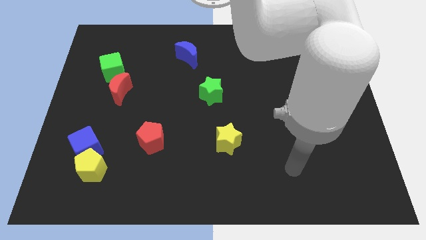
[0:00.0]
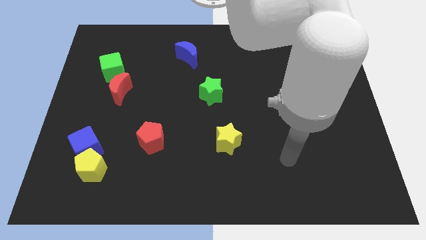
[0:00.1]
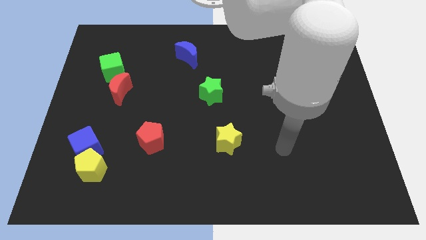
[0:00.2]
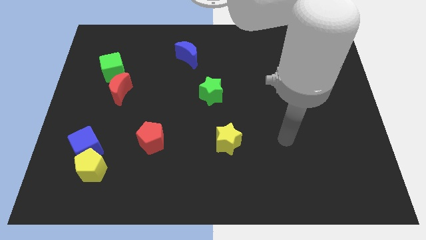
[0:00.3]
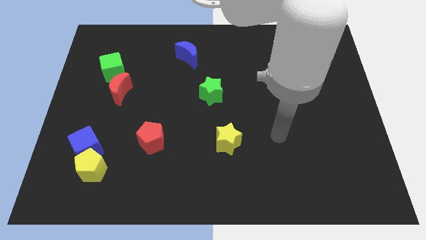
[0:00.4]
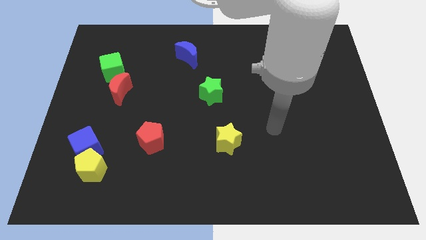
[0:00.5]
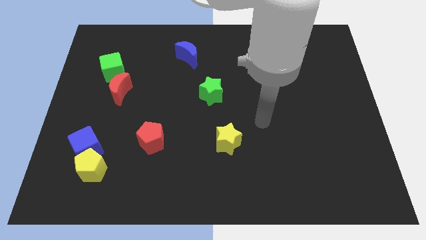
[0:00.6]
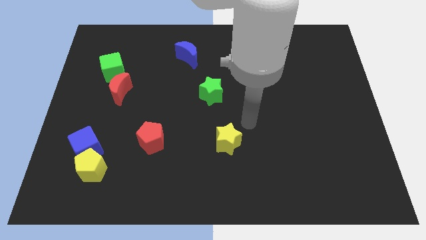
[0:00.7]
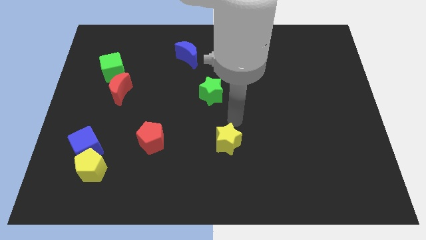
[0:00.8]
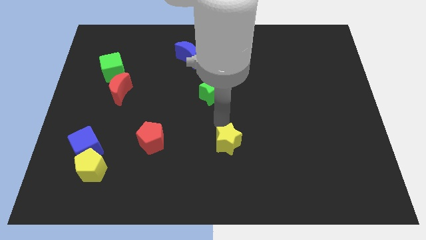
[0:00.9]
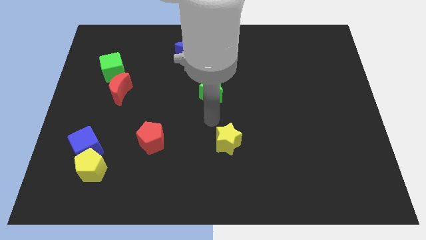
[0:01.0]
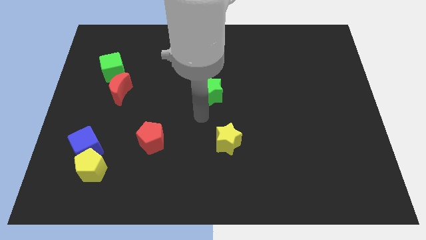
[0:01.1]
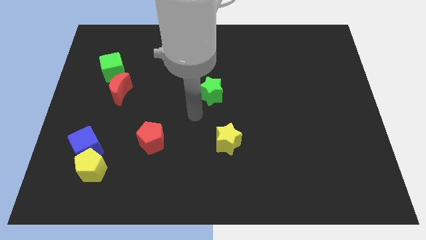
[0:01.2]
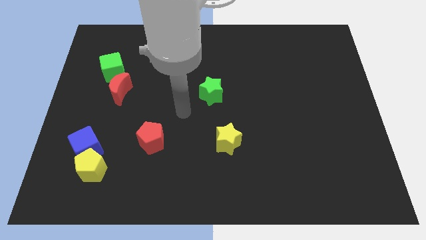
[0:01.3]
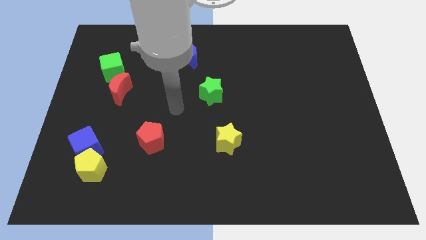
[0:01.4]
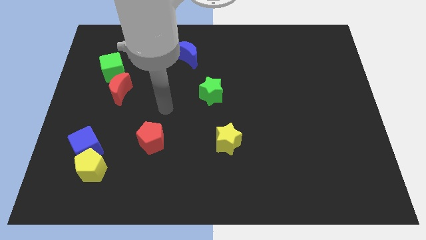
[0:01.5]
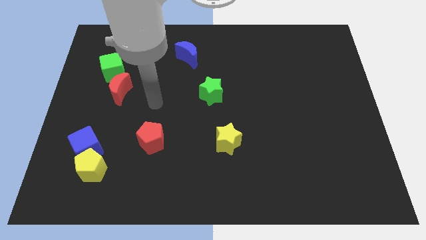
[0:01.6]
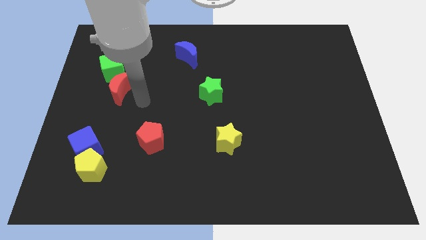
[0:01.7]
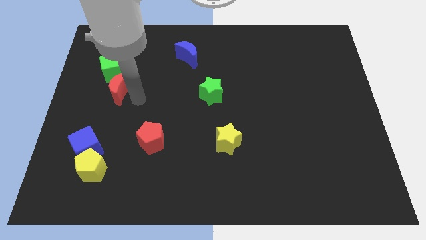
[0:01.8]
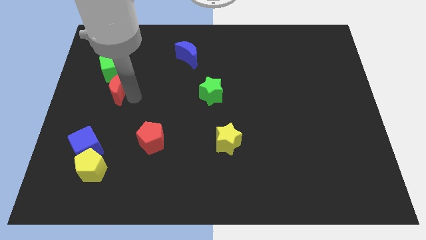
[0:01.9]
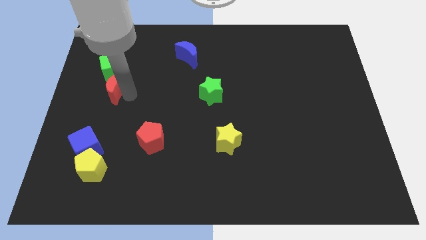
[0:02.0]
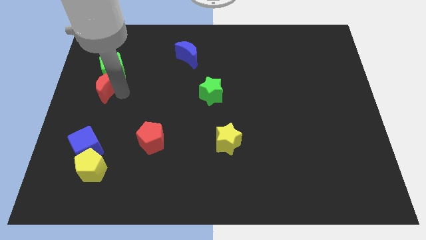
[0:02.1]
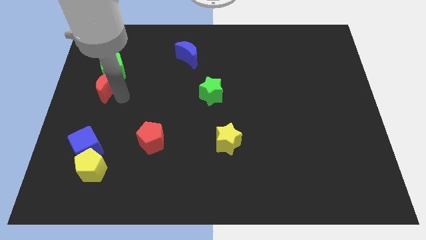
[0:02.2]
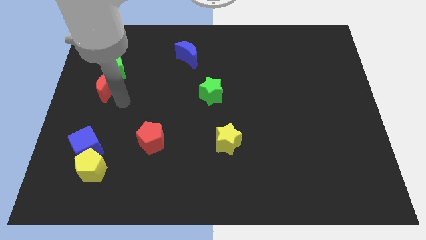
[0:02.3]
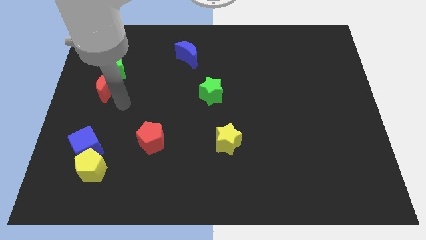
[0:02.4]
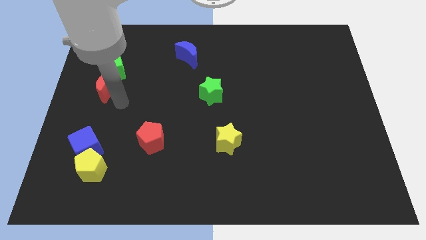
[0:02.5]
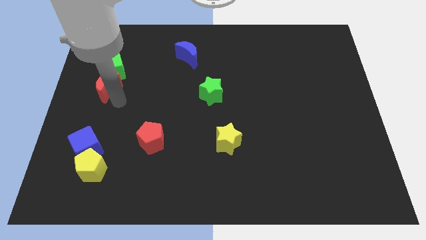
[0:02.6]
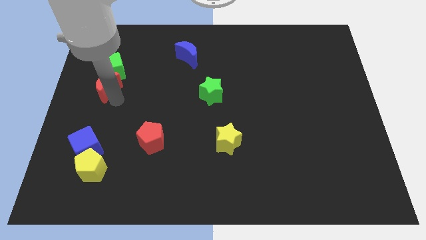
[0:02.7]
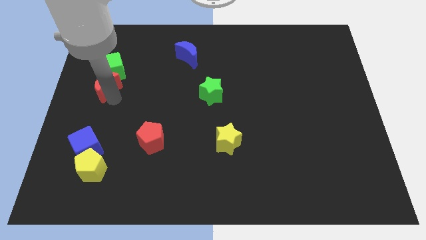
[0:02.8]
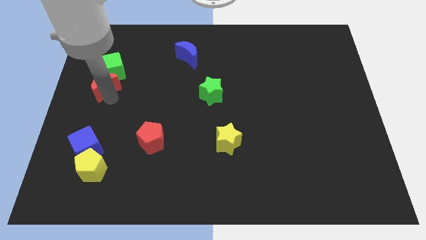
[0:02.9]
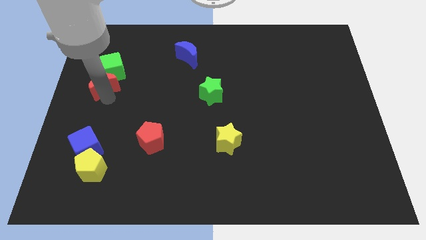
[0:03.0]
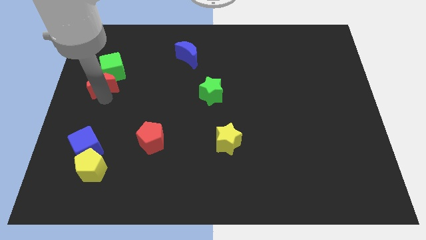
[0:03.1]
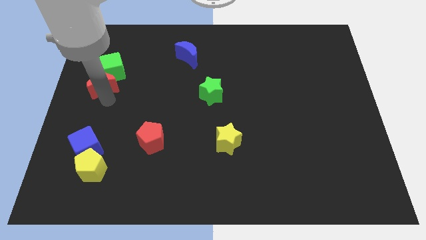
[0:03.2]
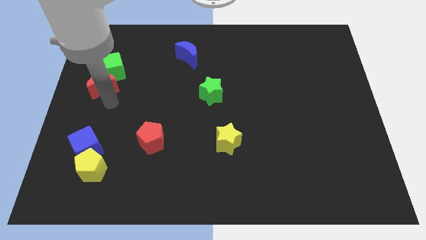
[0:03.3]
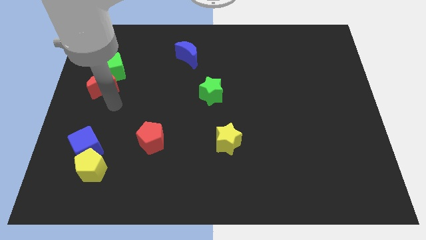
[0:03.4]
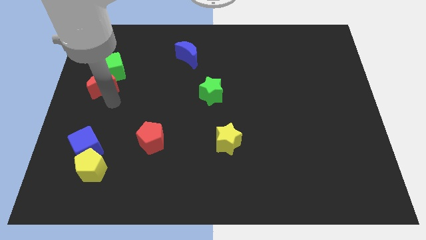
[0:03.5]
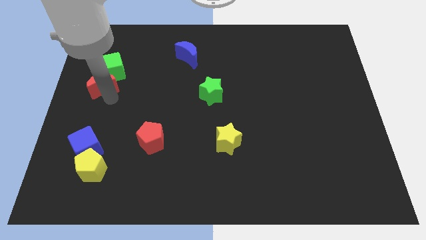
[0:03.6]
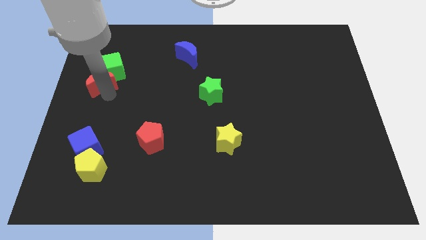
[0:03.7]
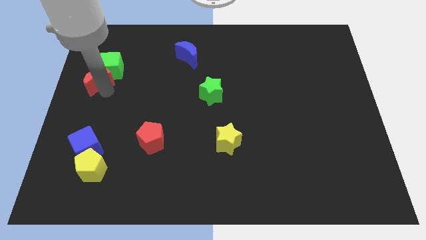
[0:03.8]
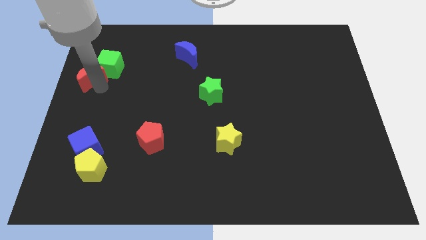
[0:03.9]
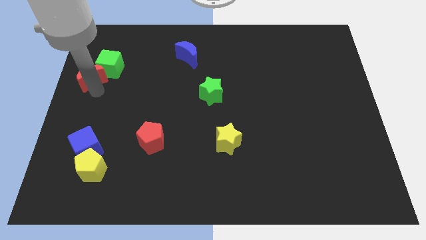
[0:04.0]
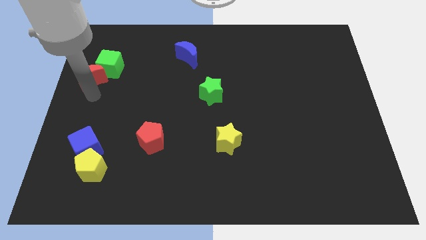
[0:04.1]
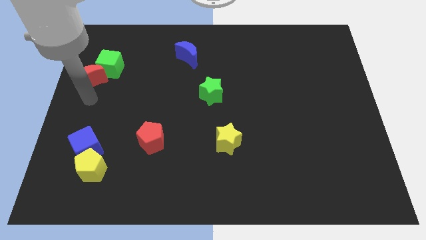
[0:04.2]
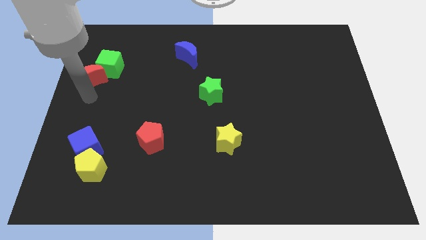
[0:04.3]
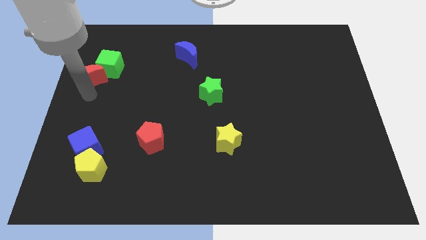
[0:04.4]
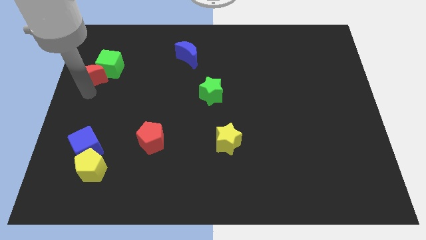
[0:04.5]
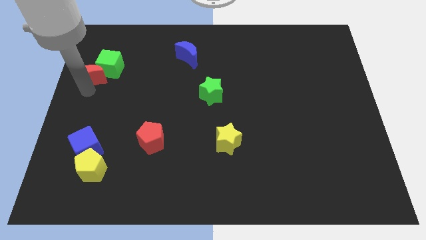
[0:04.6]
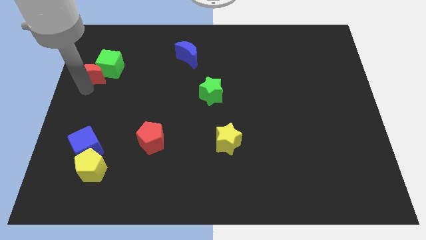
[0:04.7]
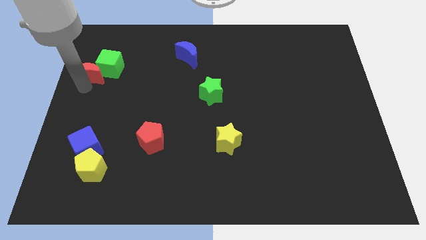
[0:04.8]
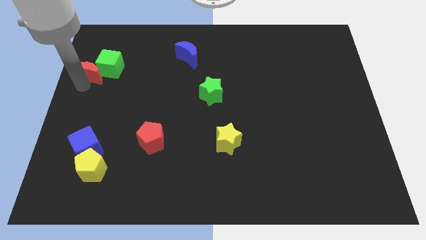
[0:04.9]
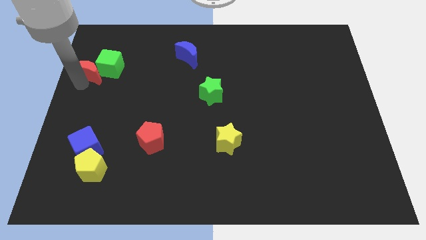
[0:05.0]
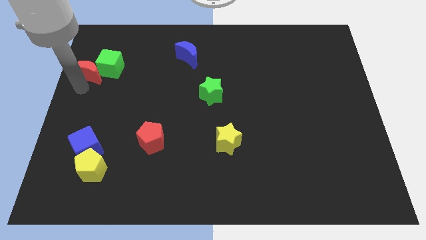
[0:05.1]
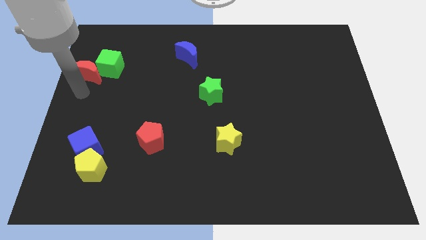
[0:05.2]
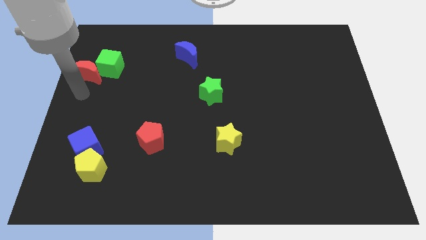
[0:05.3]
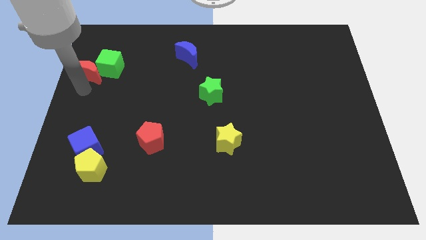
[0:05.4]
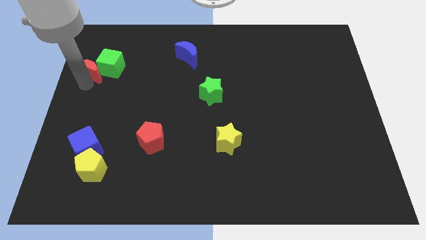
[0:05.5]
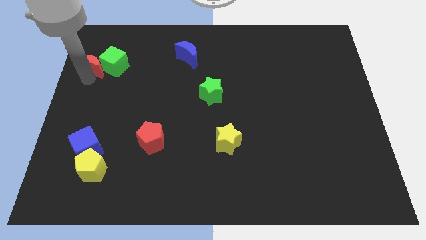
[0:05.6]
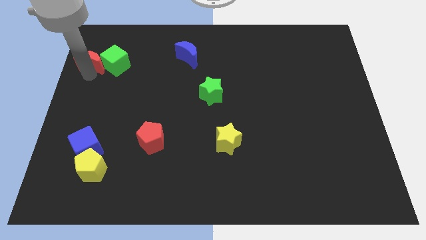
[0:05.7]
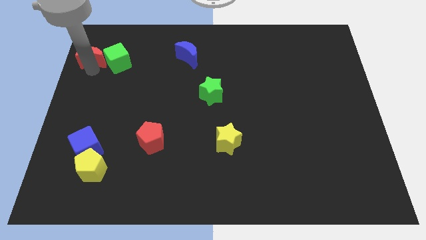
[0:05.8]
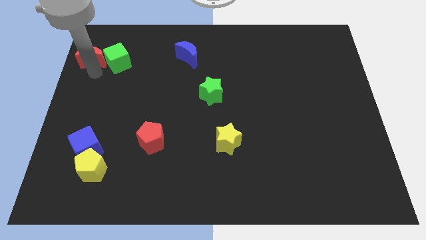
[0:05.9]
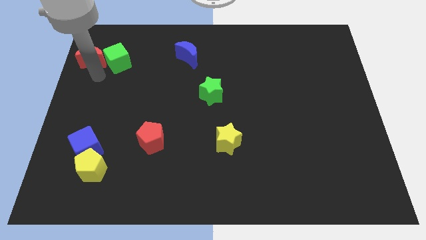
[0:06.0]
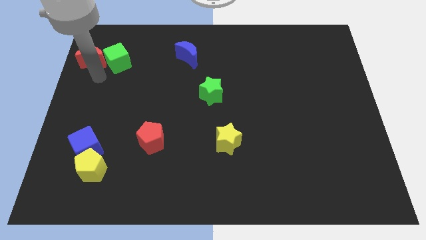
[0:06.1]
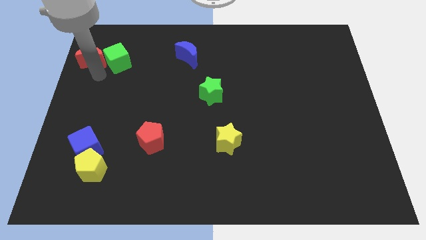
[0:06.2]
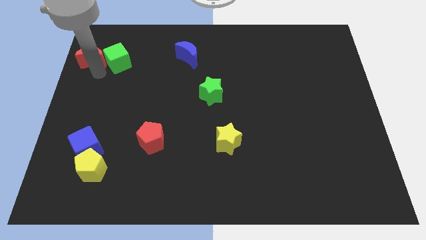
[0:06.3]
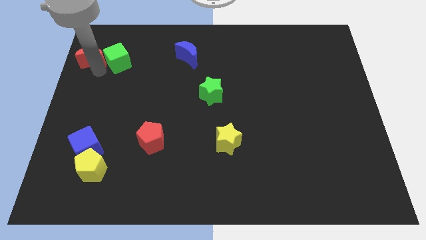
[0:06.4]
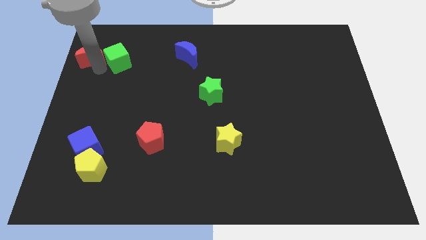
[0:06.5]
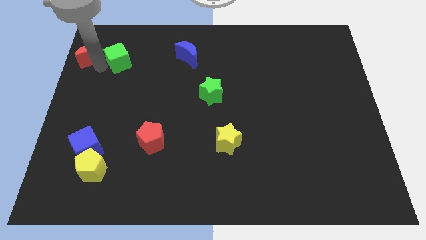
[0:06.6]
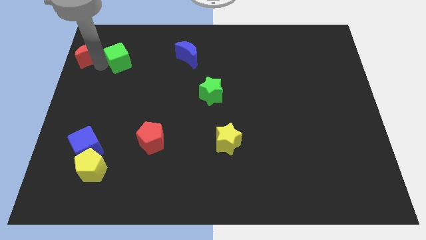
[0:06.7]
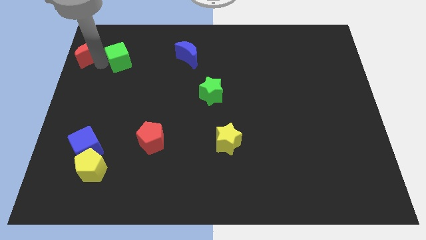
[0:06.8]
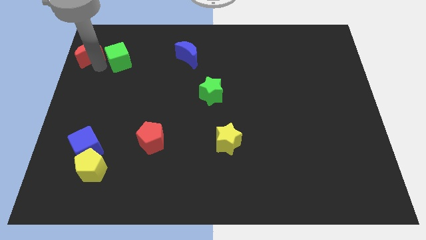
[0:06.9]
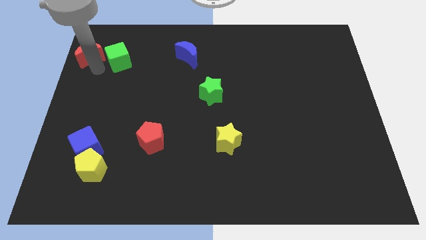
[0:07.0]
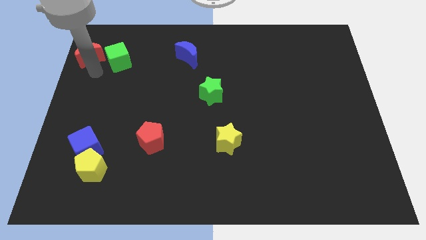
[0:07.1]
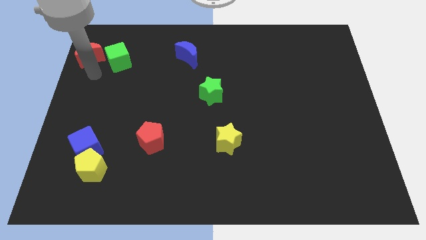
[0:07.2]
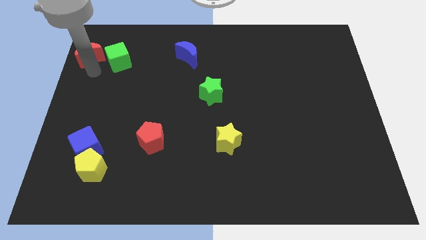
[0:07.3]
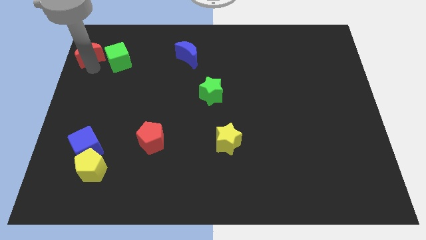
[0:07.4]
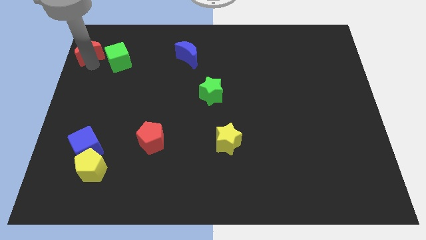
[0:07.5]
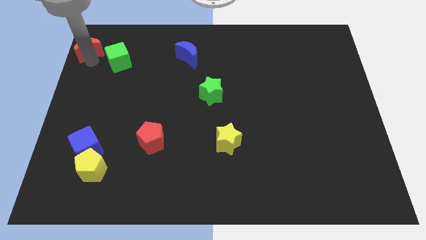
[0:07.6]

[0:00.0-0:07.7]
slide the red moon to the top left
